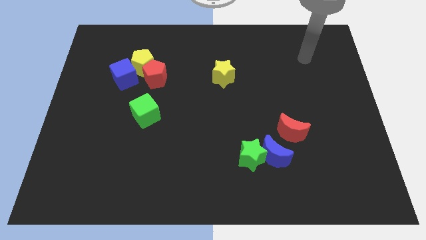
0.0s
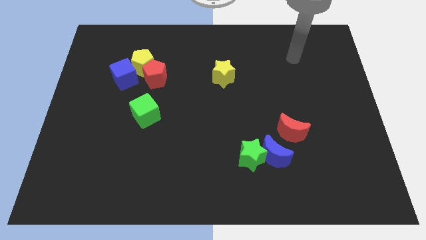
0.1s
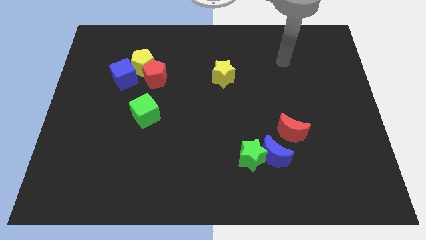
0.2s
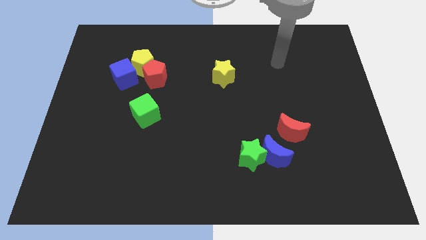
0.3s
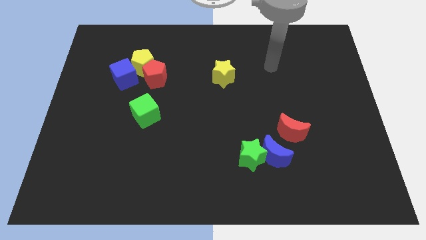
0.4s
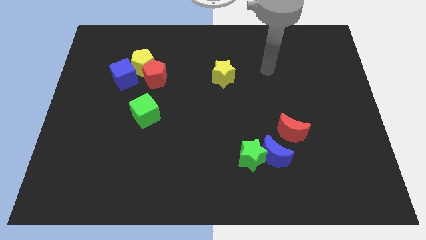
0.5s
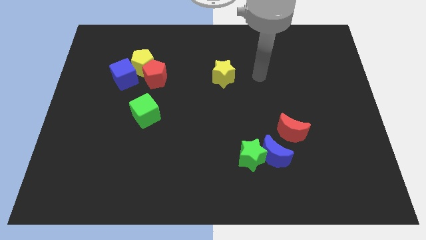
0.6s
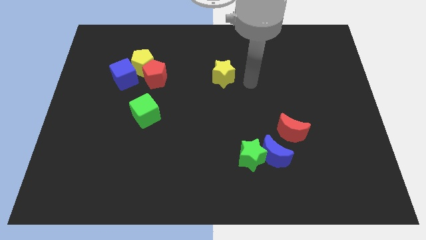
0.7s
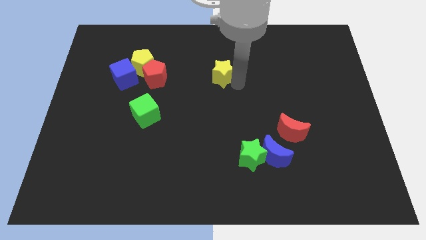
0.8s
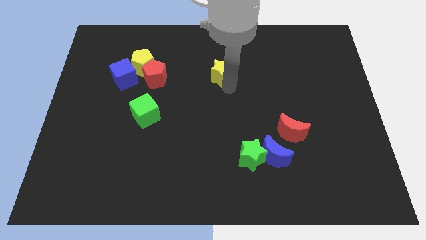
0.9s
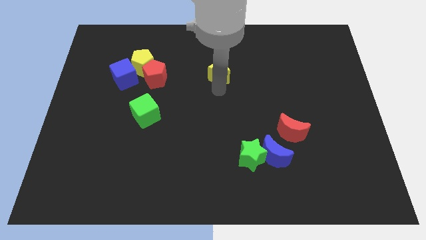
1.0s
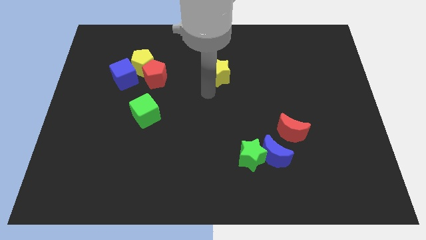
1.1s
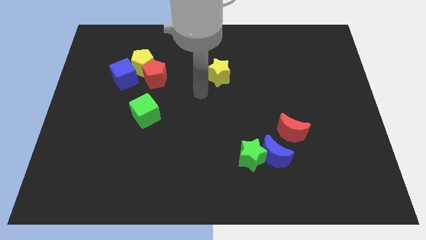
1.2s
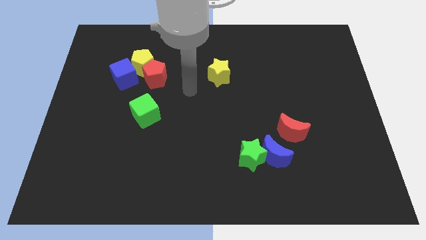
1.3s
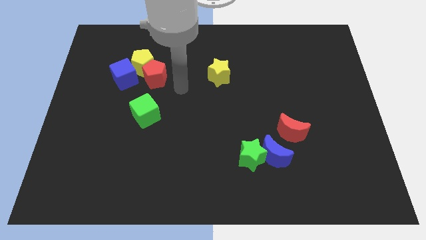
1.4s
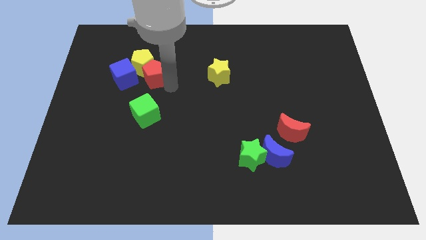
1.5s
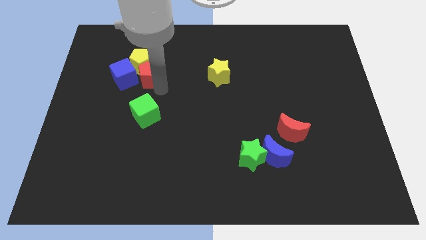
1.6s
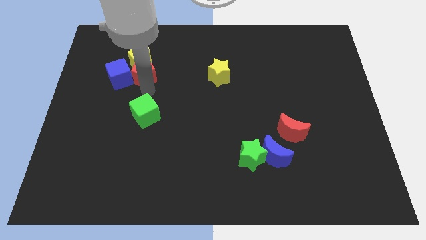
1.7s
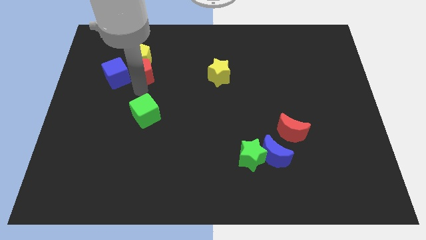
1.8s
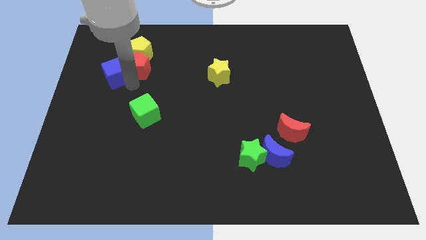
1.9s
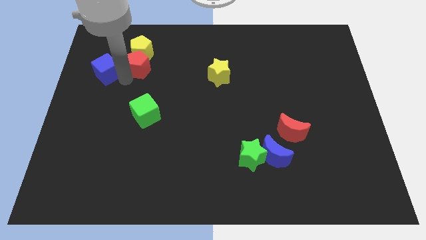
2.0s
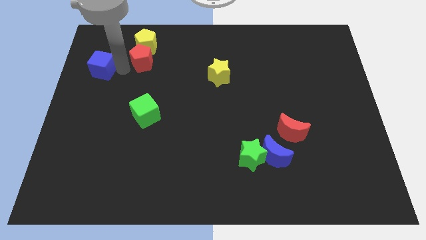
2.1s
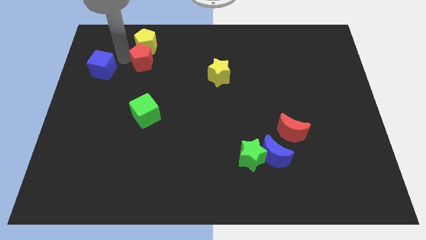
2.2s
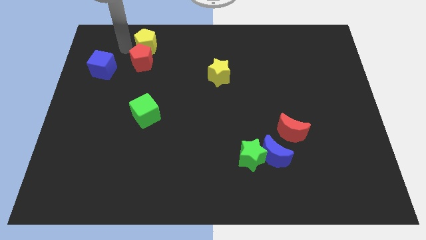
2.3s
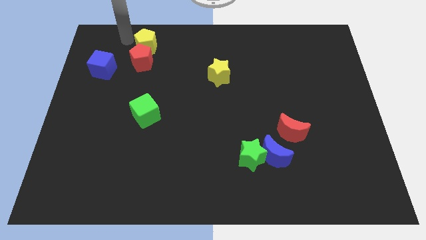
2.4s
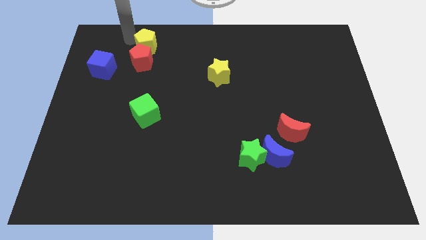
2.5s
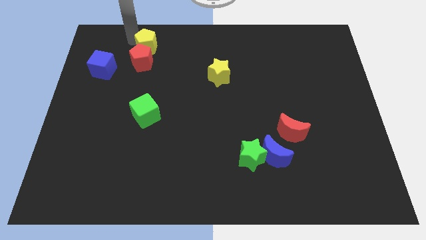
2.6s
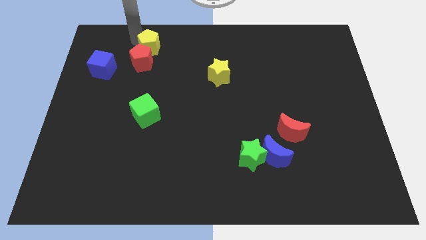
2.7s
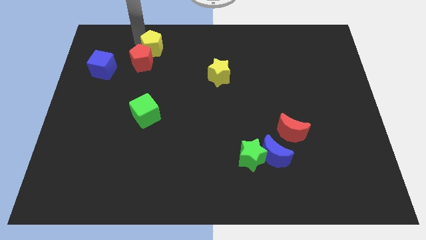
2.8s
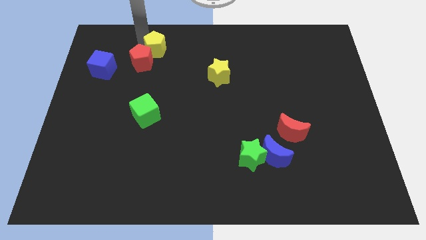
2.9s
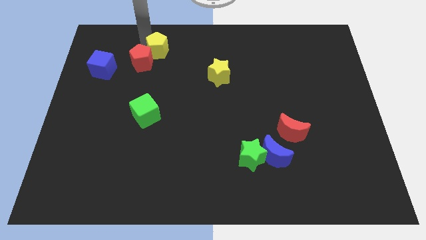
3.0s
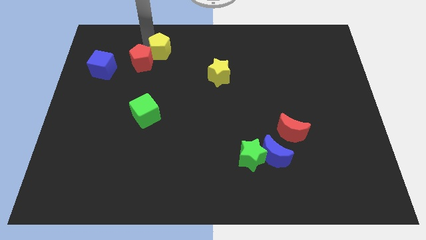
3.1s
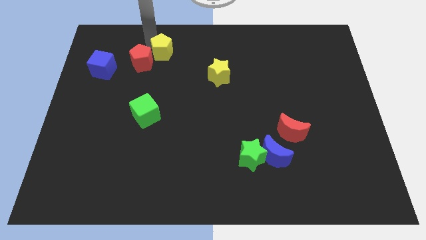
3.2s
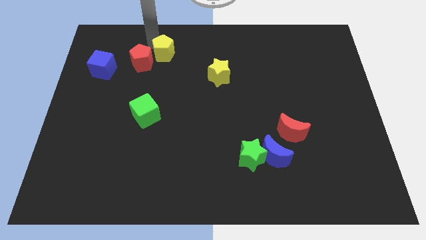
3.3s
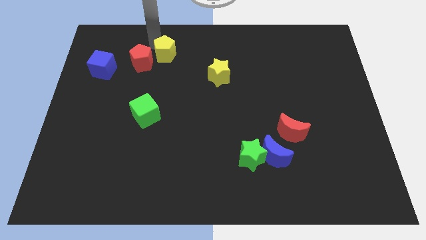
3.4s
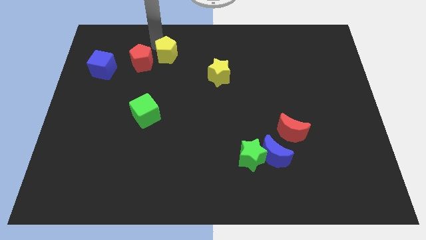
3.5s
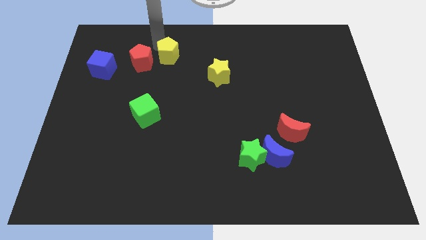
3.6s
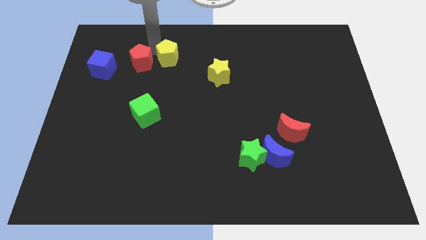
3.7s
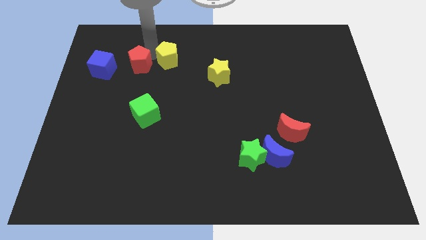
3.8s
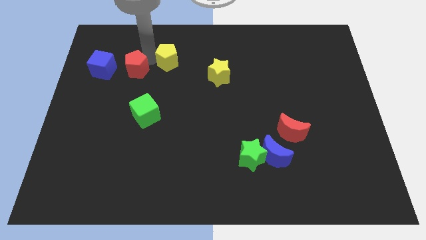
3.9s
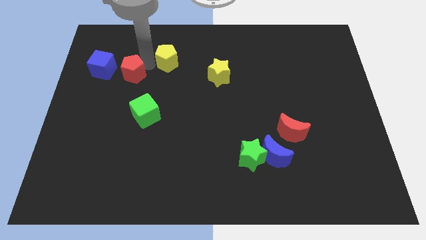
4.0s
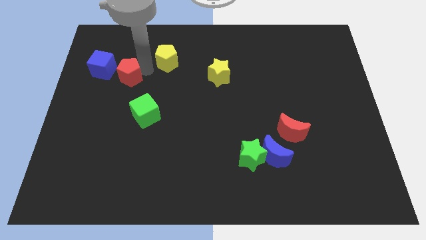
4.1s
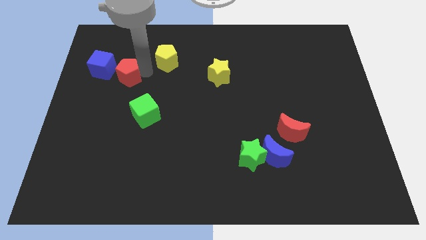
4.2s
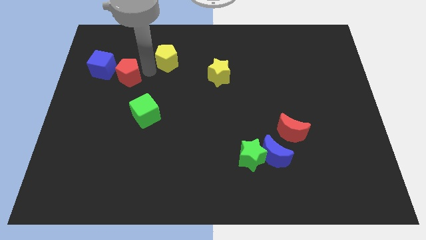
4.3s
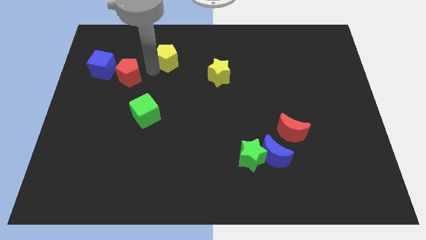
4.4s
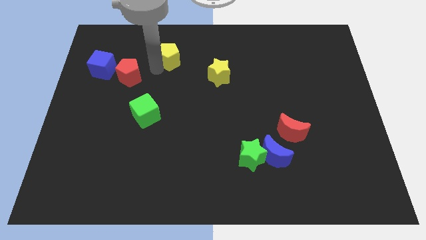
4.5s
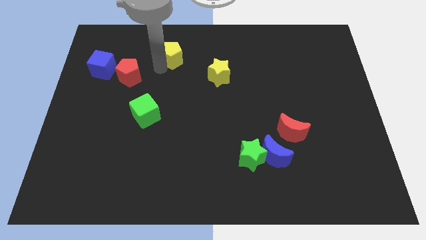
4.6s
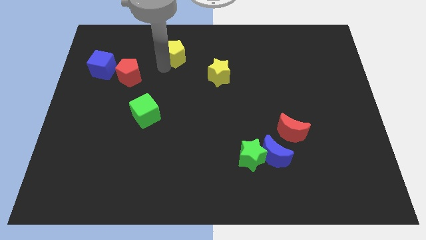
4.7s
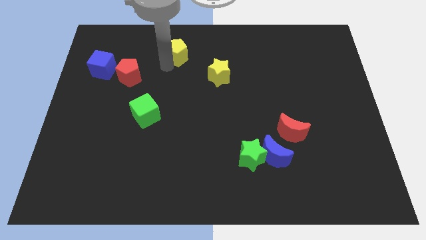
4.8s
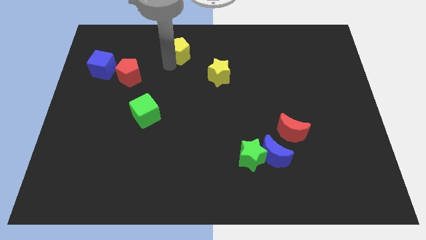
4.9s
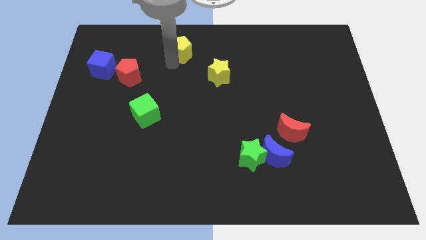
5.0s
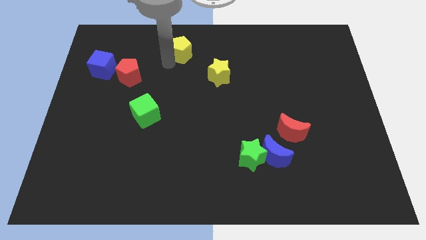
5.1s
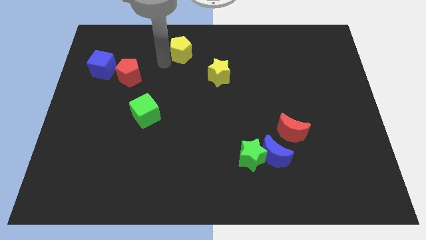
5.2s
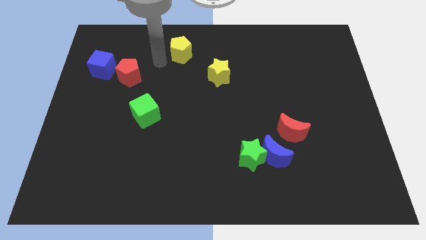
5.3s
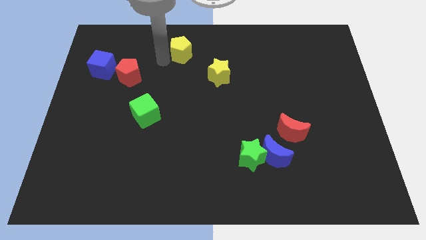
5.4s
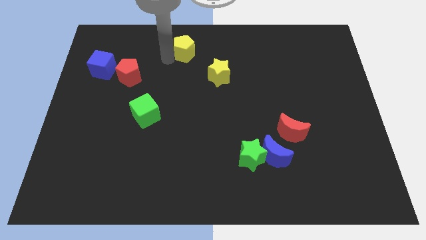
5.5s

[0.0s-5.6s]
put the yellow pentagon to the top
